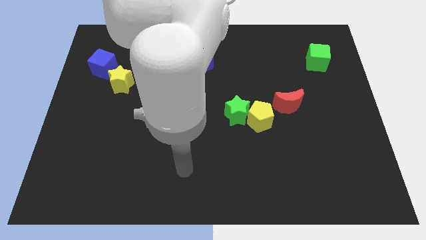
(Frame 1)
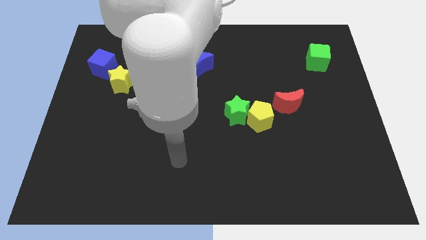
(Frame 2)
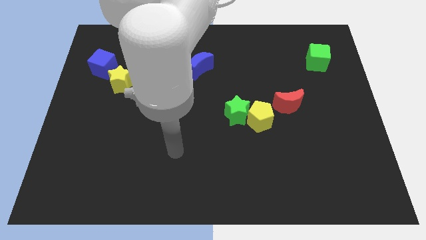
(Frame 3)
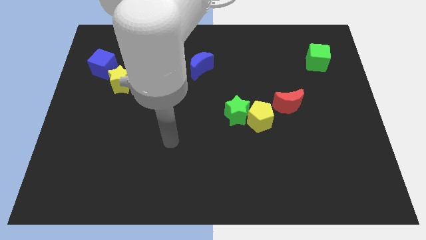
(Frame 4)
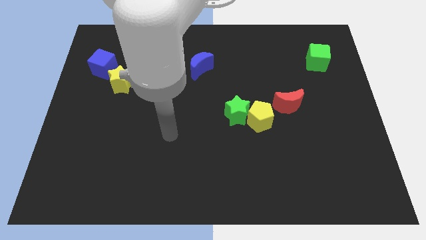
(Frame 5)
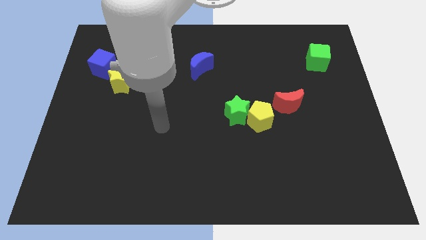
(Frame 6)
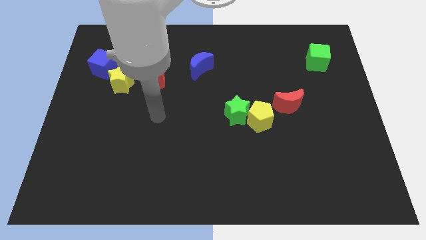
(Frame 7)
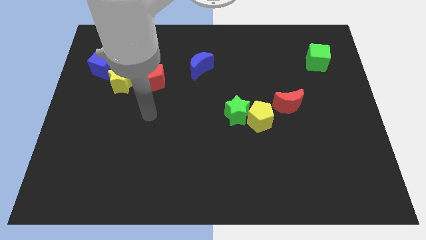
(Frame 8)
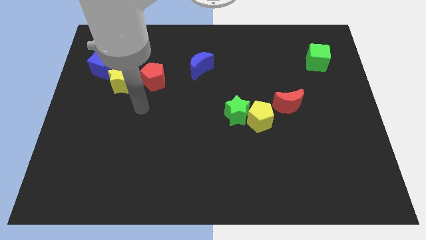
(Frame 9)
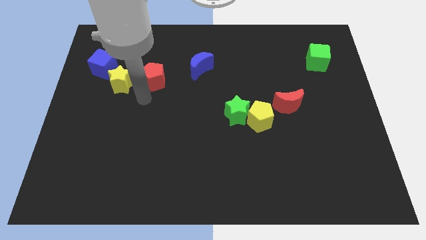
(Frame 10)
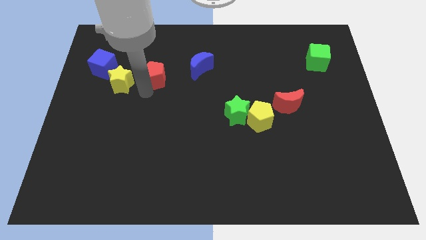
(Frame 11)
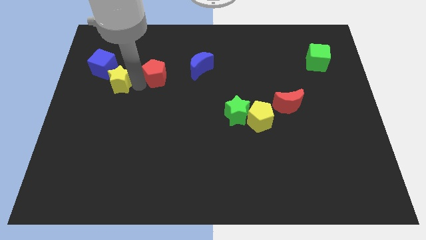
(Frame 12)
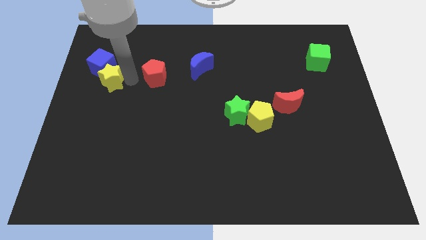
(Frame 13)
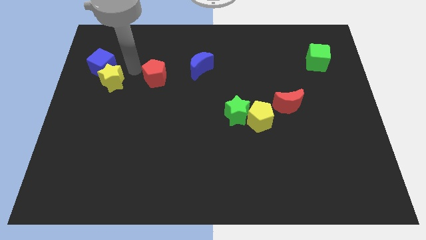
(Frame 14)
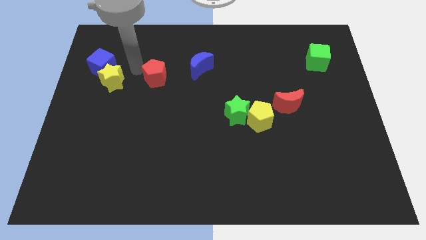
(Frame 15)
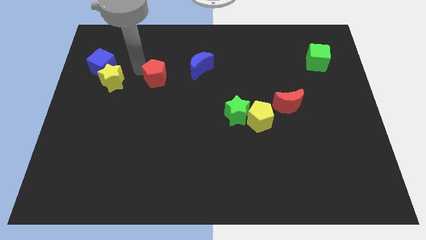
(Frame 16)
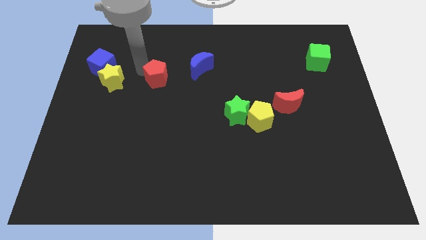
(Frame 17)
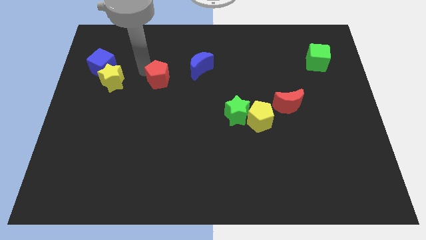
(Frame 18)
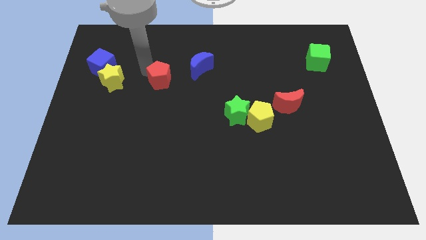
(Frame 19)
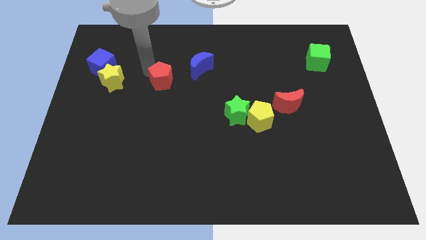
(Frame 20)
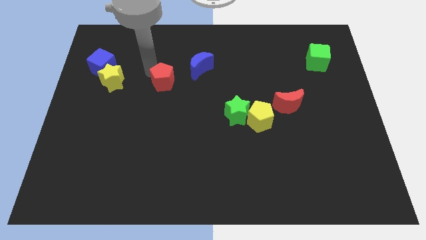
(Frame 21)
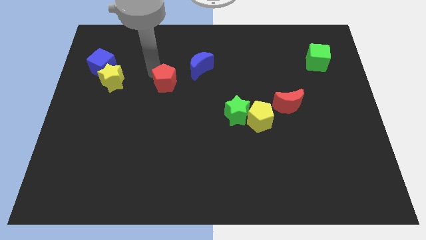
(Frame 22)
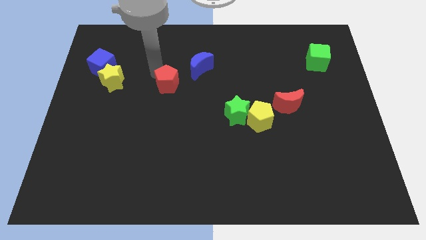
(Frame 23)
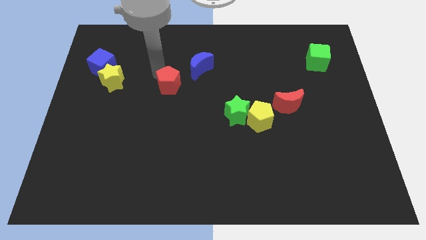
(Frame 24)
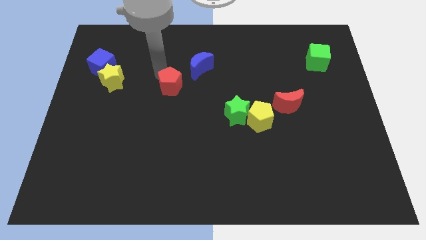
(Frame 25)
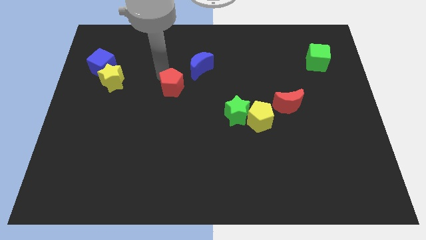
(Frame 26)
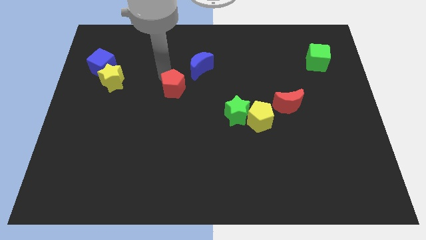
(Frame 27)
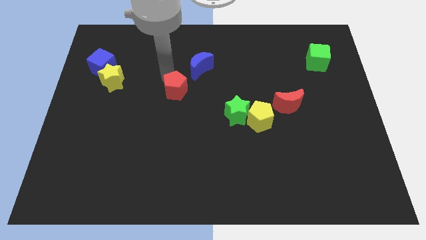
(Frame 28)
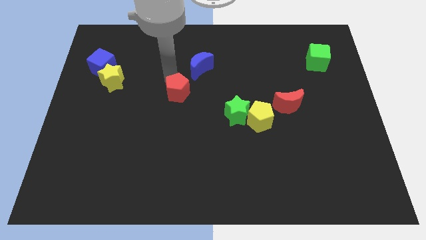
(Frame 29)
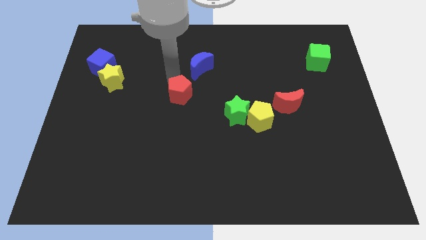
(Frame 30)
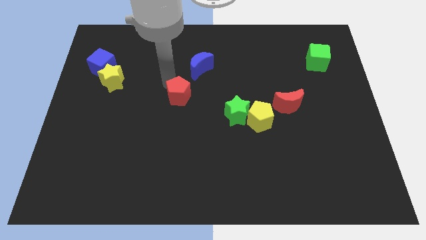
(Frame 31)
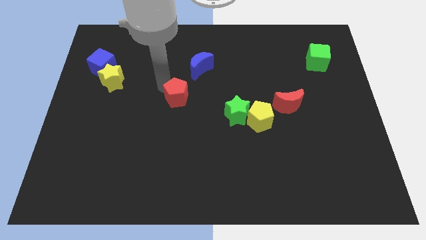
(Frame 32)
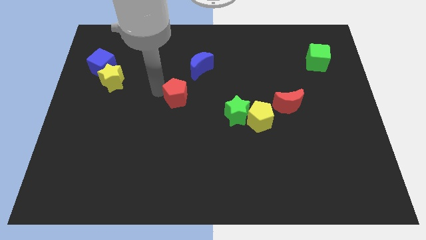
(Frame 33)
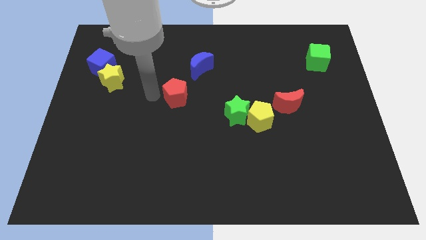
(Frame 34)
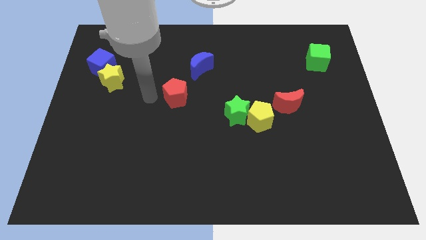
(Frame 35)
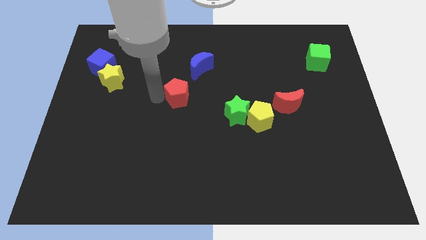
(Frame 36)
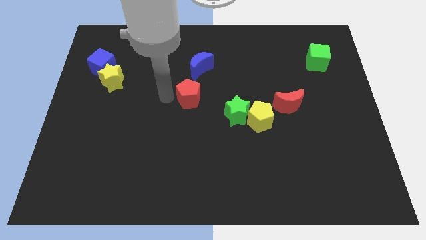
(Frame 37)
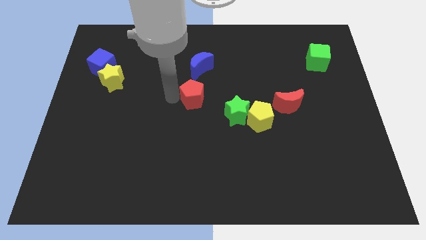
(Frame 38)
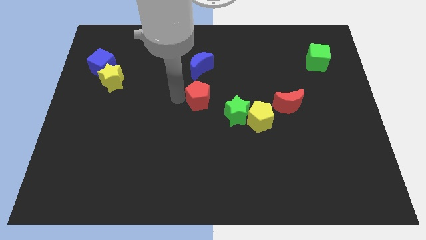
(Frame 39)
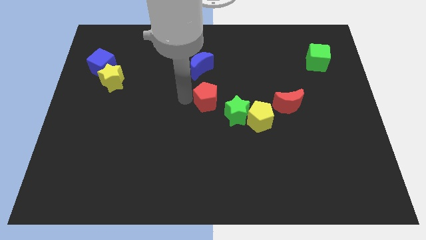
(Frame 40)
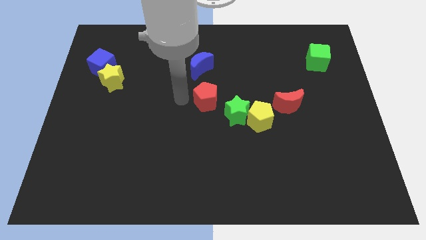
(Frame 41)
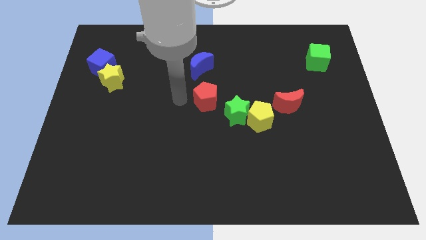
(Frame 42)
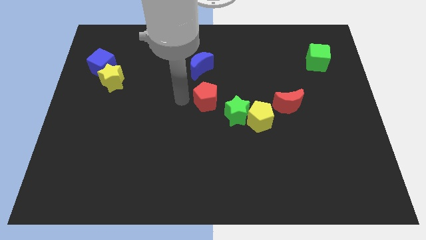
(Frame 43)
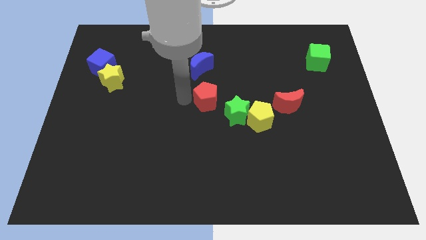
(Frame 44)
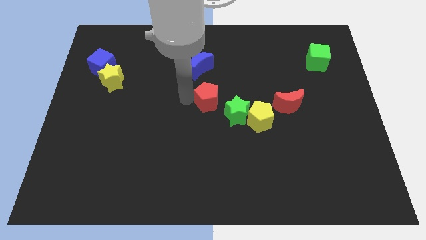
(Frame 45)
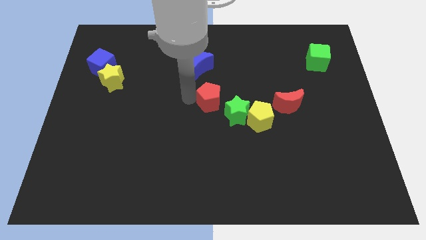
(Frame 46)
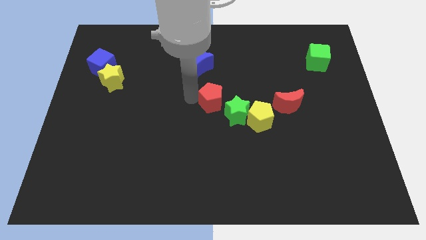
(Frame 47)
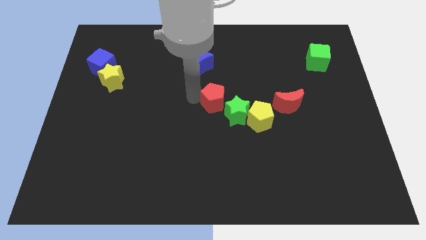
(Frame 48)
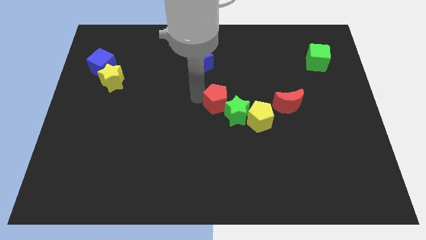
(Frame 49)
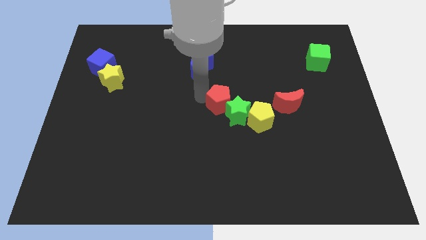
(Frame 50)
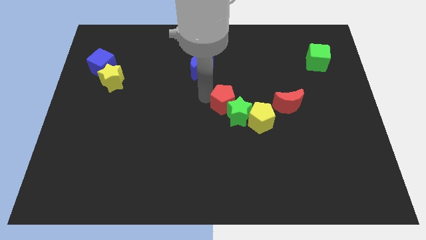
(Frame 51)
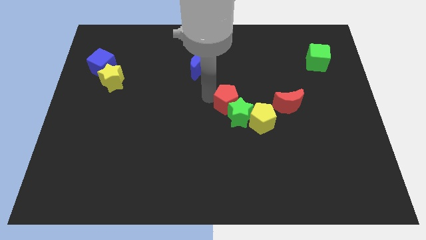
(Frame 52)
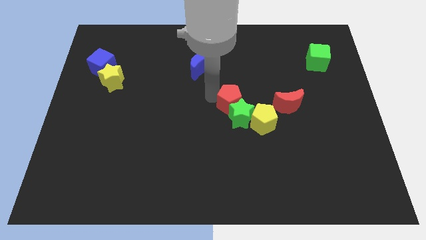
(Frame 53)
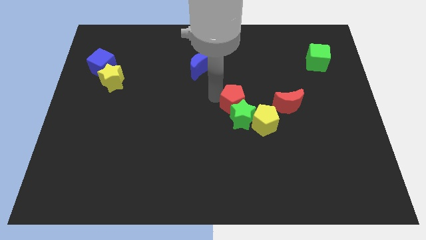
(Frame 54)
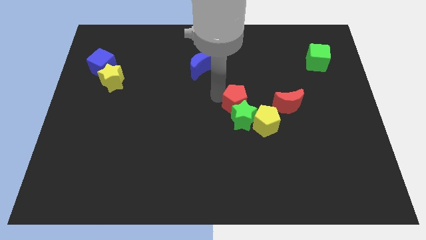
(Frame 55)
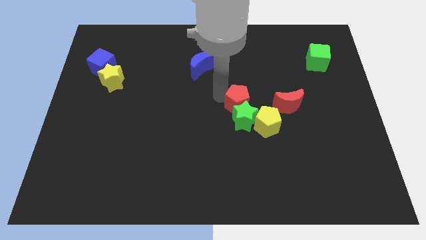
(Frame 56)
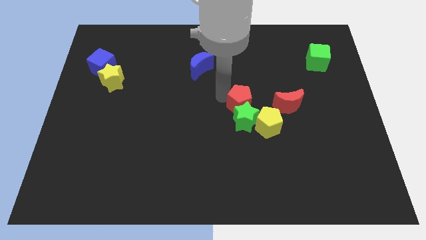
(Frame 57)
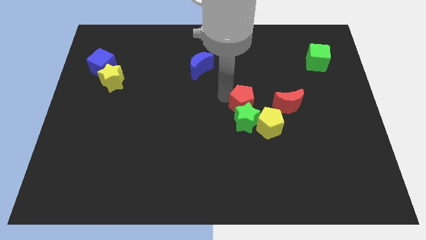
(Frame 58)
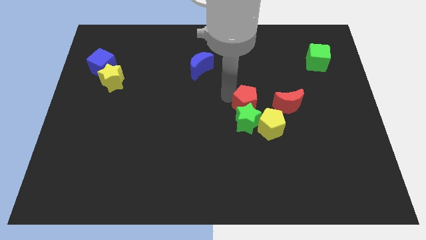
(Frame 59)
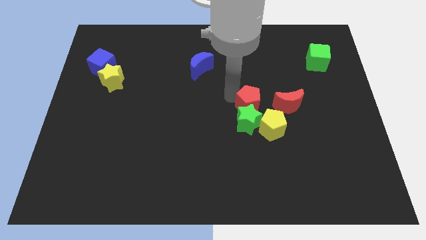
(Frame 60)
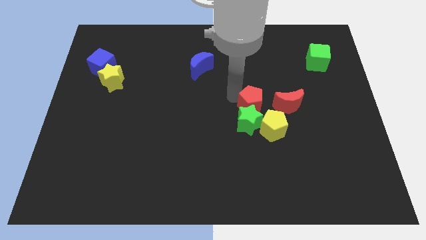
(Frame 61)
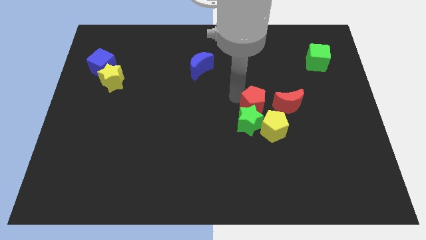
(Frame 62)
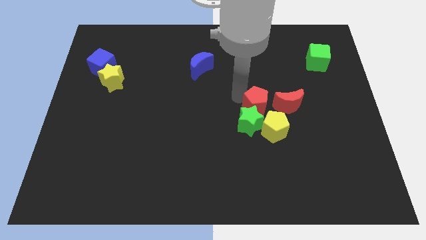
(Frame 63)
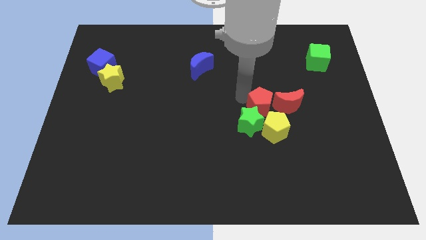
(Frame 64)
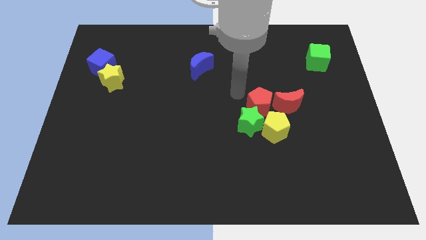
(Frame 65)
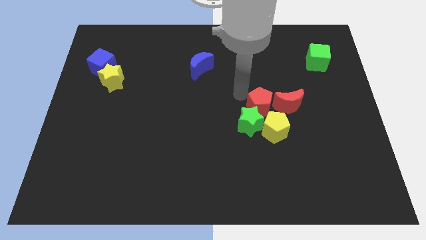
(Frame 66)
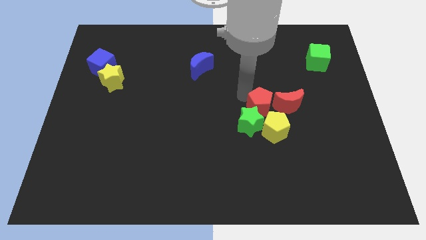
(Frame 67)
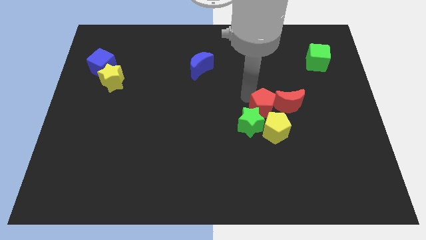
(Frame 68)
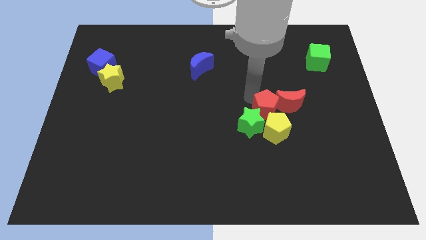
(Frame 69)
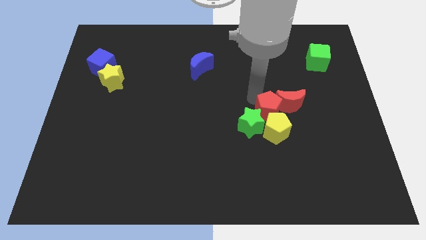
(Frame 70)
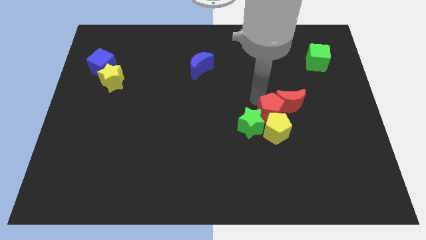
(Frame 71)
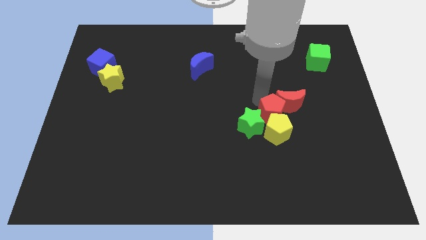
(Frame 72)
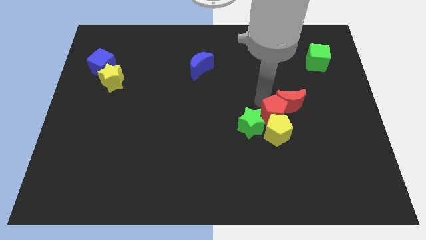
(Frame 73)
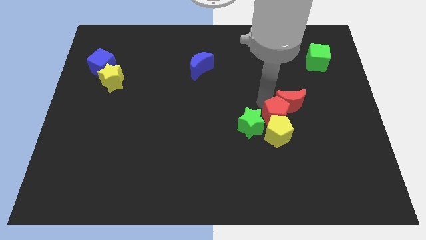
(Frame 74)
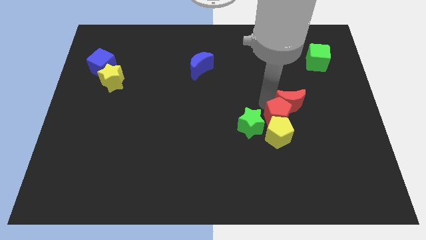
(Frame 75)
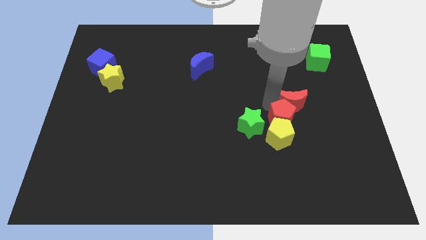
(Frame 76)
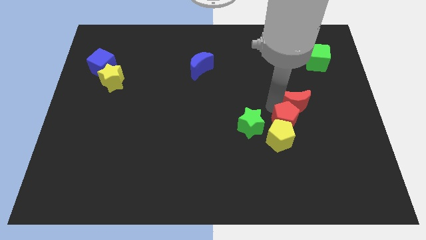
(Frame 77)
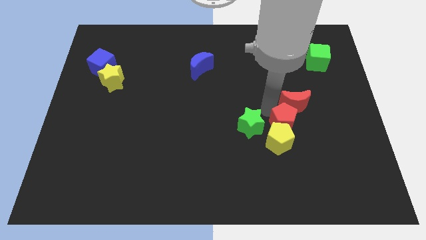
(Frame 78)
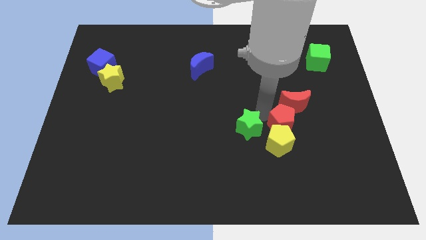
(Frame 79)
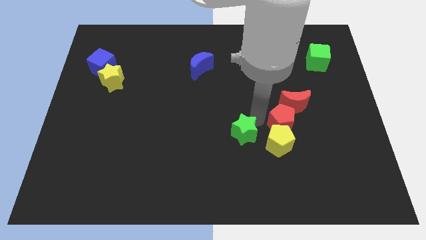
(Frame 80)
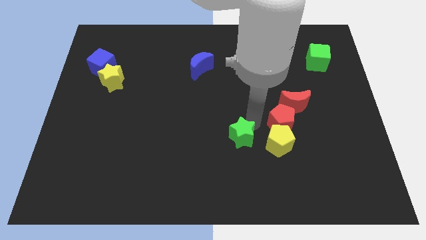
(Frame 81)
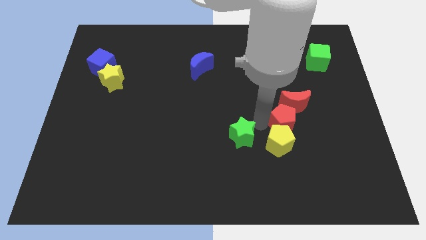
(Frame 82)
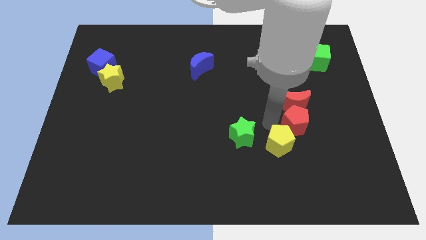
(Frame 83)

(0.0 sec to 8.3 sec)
push the red pentagon diagonally down and to the right of the red moon
